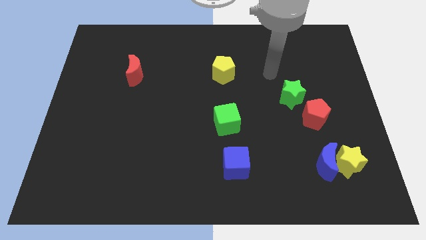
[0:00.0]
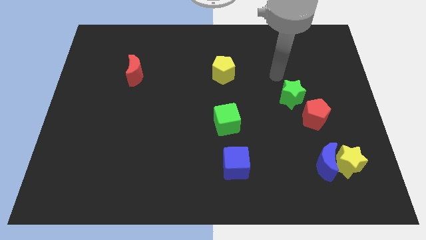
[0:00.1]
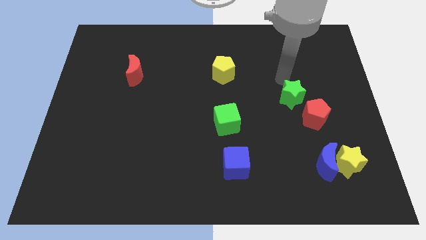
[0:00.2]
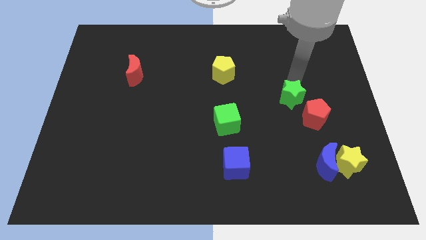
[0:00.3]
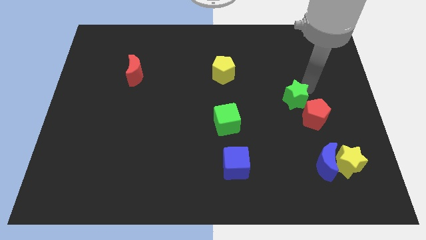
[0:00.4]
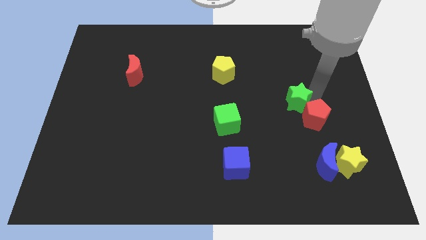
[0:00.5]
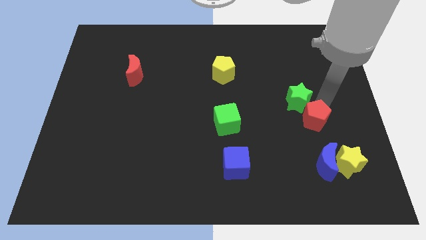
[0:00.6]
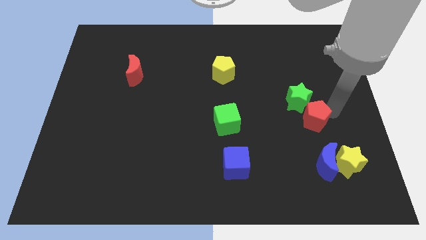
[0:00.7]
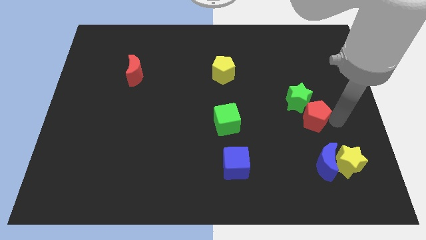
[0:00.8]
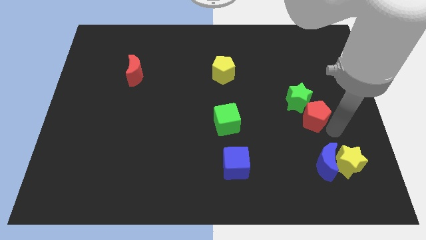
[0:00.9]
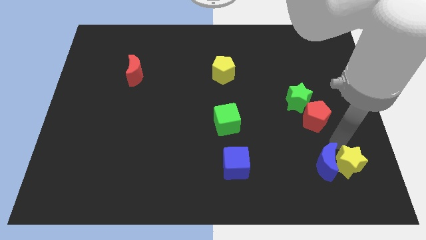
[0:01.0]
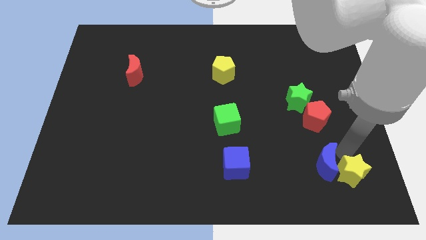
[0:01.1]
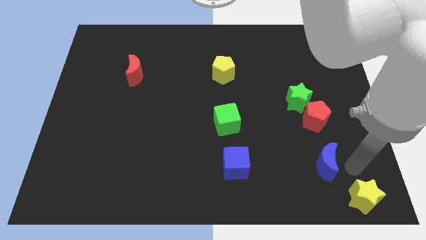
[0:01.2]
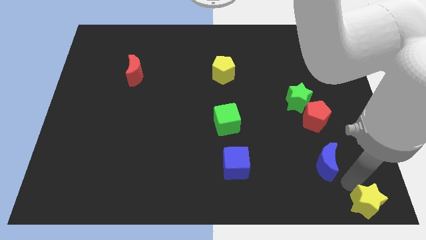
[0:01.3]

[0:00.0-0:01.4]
move the blue moon away from the yellow star

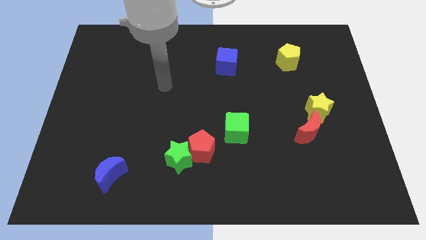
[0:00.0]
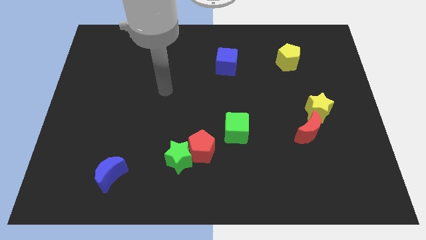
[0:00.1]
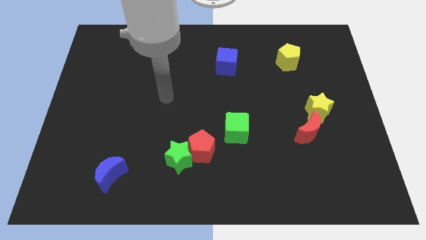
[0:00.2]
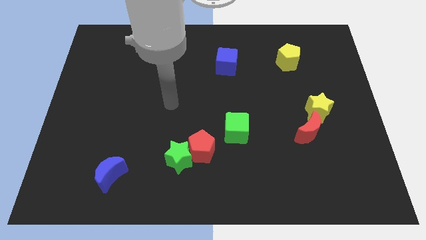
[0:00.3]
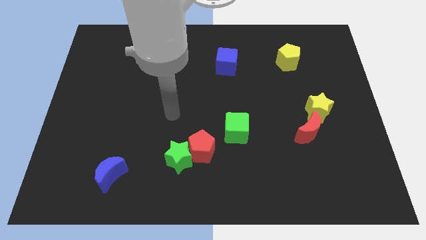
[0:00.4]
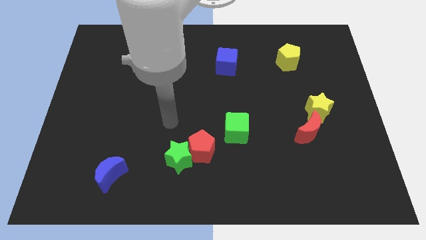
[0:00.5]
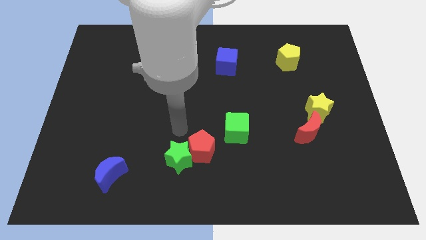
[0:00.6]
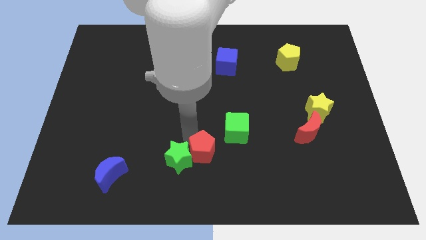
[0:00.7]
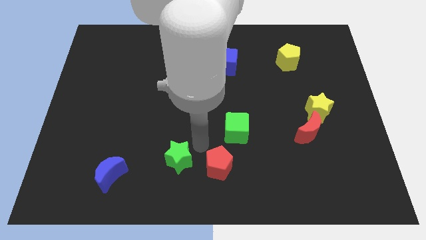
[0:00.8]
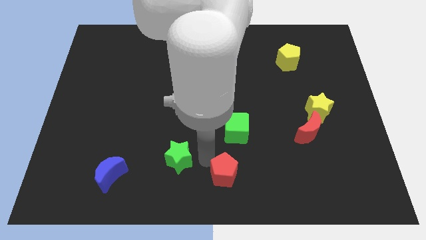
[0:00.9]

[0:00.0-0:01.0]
separate the green star from the red pentagon

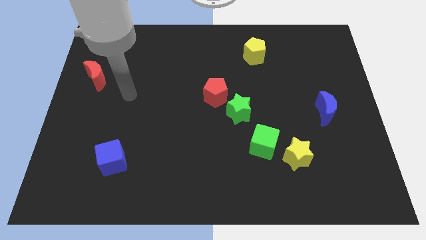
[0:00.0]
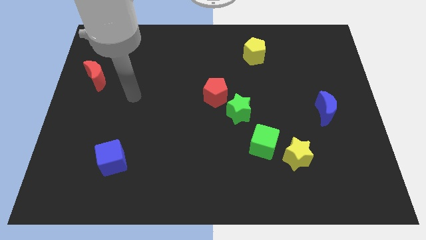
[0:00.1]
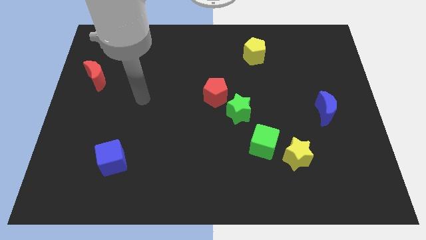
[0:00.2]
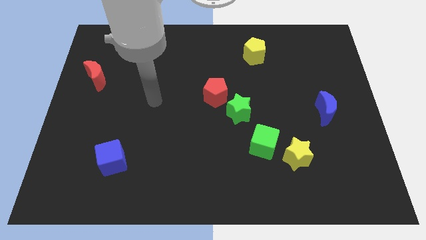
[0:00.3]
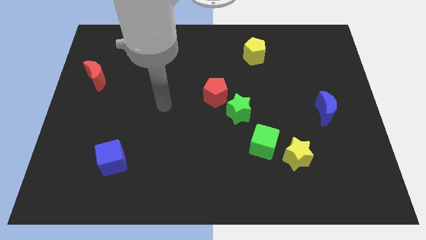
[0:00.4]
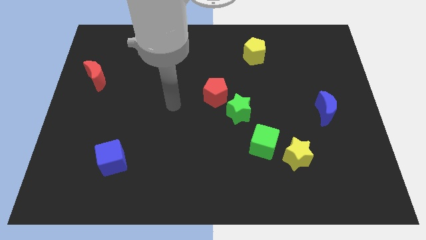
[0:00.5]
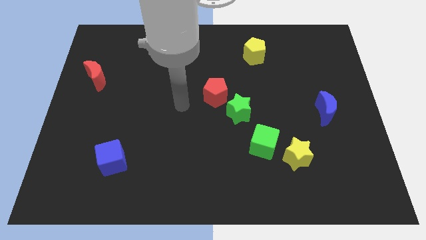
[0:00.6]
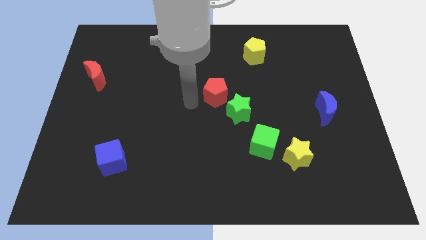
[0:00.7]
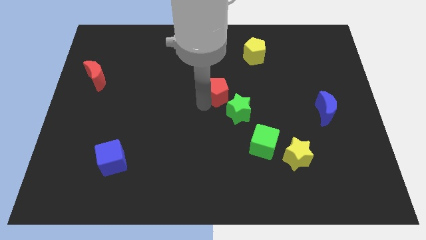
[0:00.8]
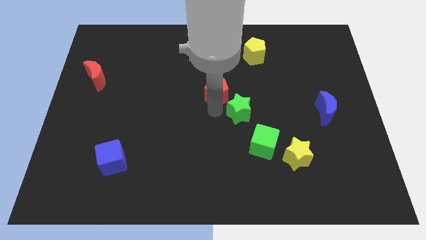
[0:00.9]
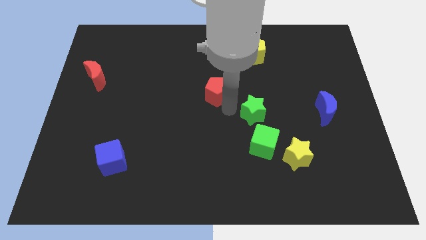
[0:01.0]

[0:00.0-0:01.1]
pull the red pentagon apart from the green star

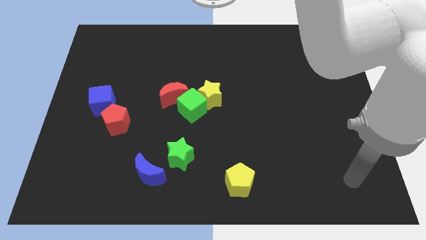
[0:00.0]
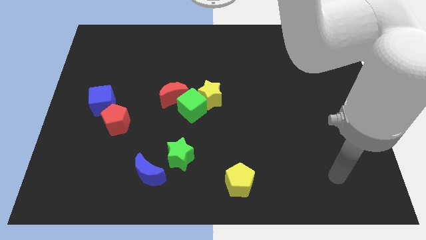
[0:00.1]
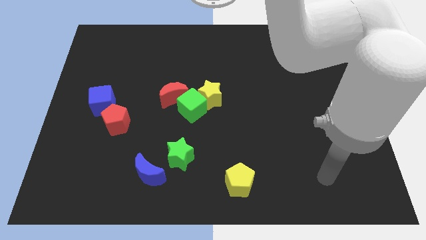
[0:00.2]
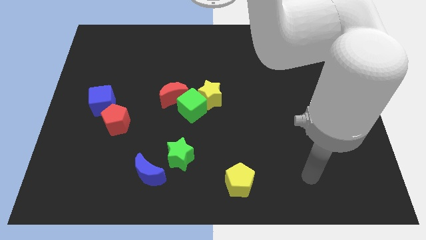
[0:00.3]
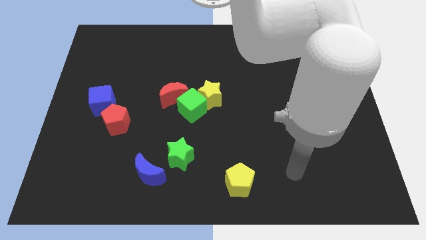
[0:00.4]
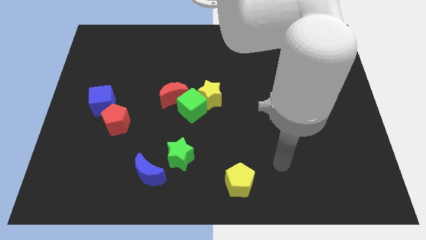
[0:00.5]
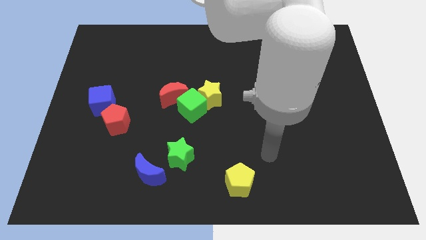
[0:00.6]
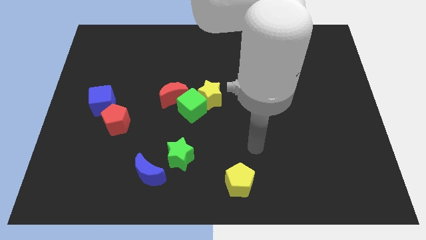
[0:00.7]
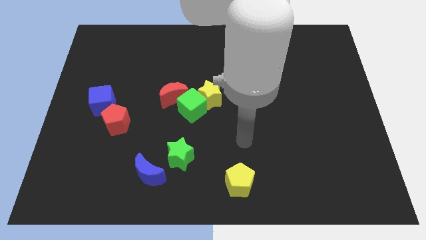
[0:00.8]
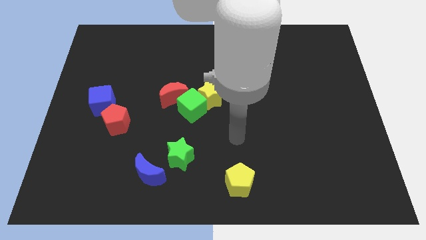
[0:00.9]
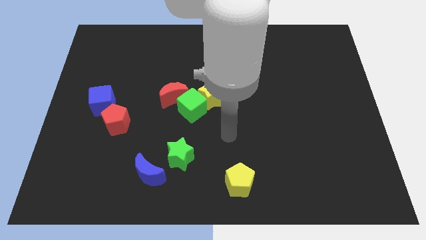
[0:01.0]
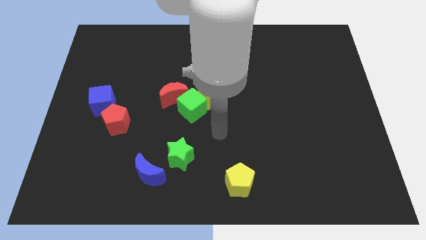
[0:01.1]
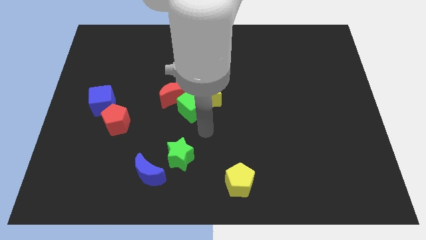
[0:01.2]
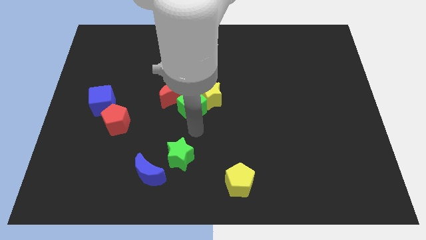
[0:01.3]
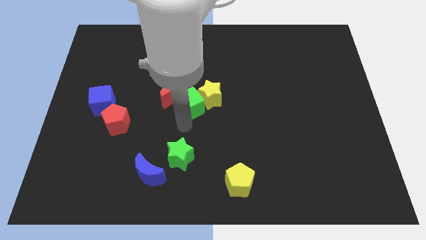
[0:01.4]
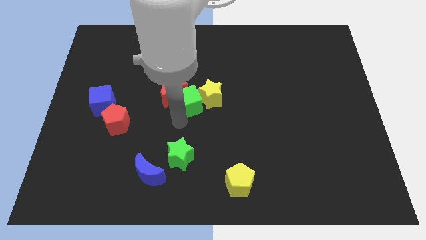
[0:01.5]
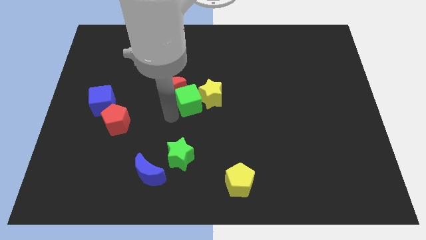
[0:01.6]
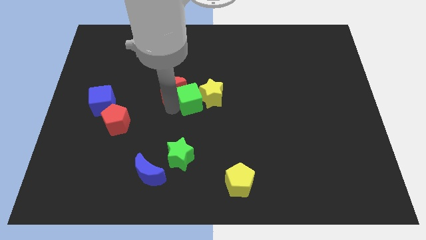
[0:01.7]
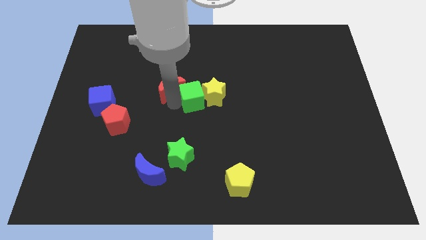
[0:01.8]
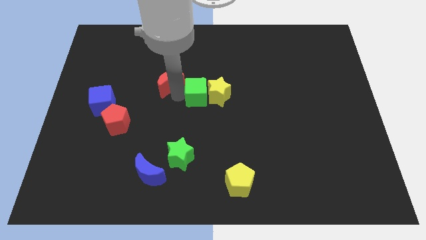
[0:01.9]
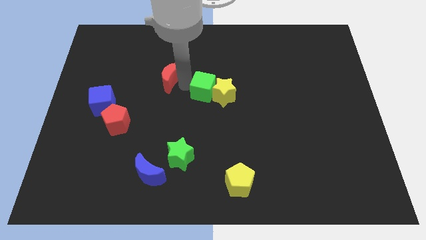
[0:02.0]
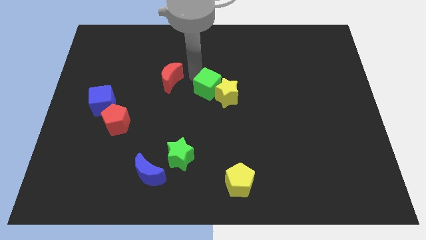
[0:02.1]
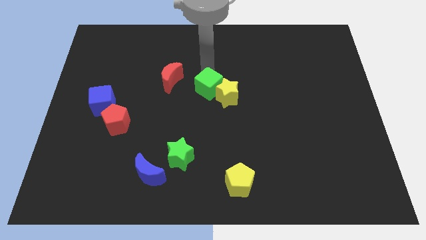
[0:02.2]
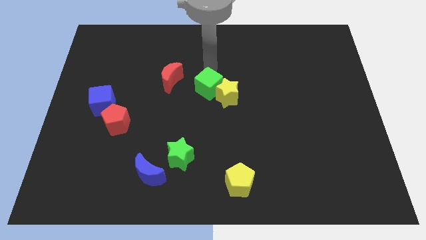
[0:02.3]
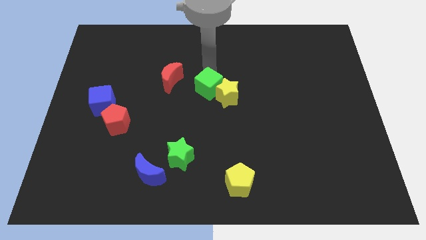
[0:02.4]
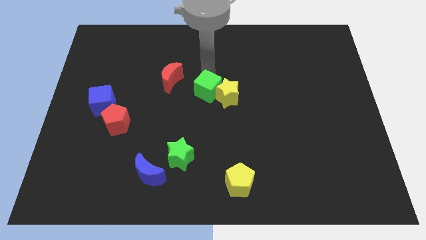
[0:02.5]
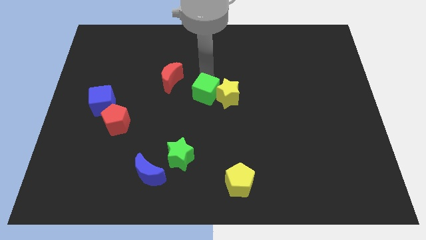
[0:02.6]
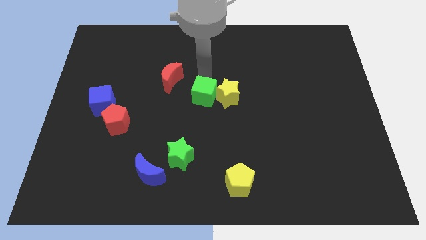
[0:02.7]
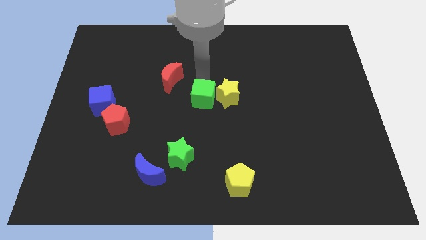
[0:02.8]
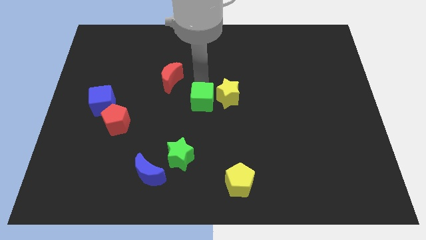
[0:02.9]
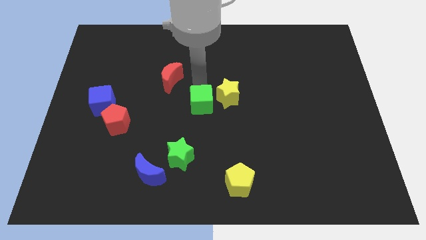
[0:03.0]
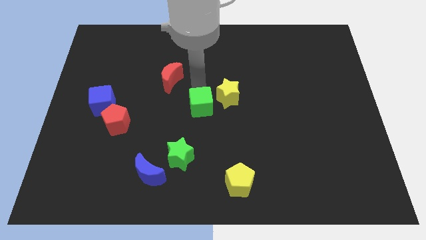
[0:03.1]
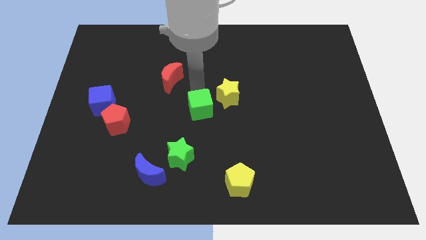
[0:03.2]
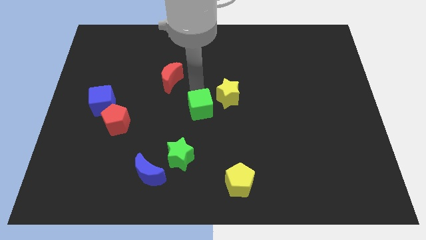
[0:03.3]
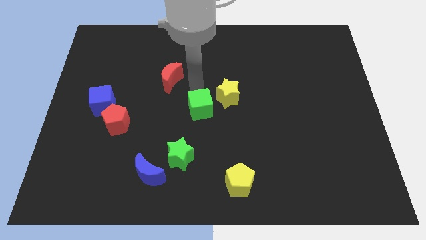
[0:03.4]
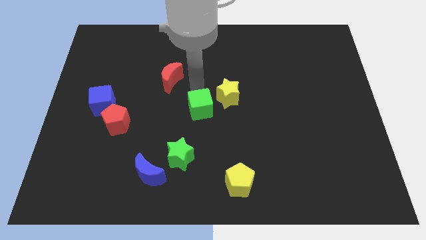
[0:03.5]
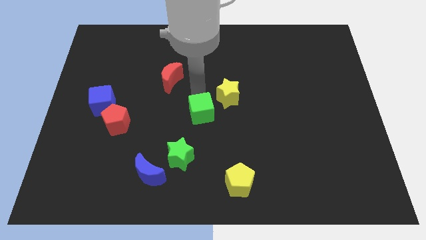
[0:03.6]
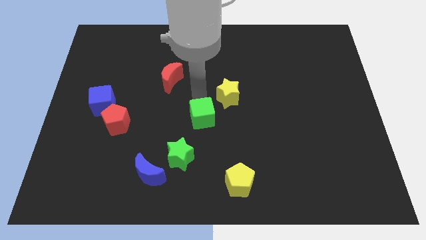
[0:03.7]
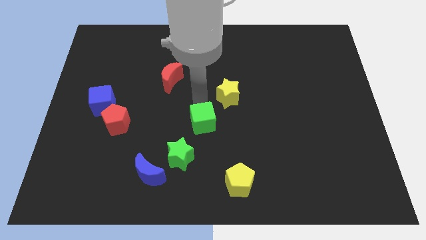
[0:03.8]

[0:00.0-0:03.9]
separate the green cube from the yellow star and red moon

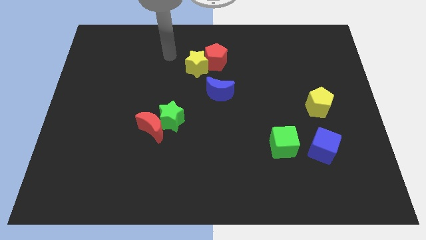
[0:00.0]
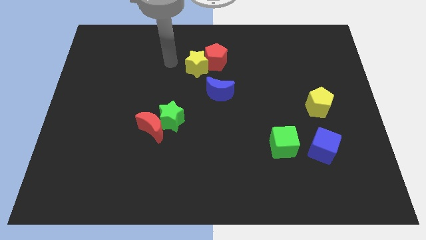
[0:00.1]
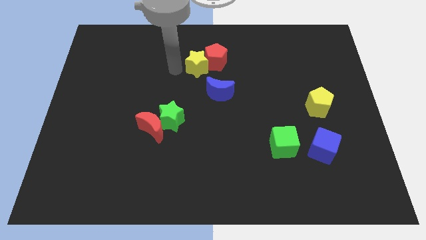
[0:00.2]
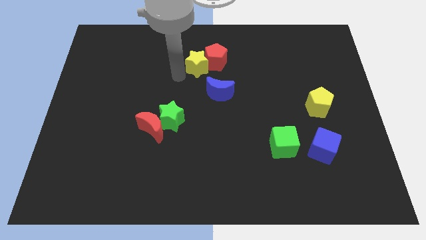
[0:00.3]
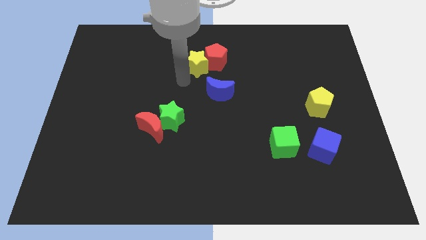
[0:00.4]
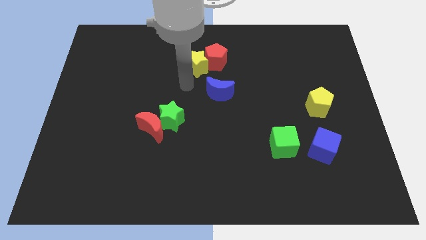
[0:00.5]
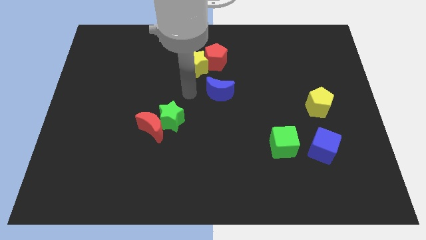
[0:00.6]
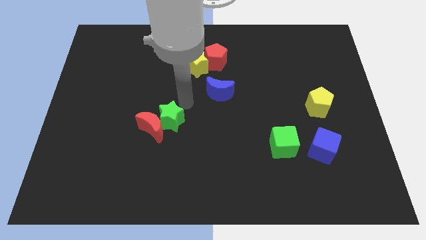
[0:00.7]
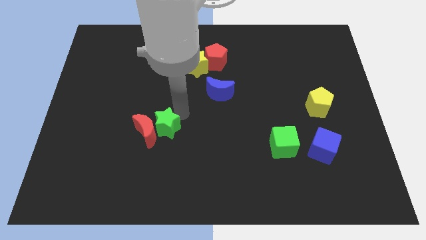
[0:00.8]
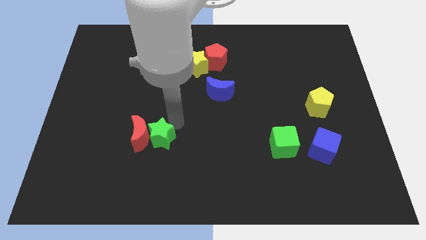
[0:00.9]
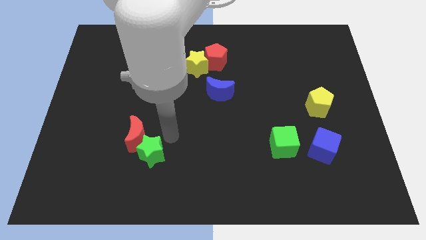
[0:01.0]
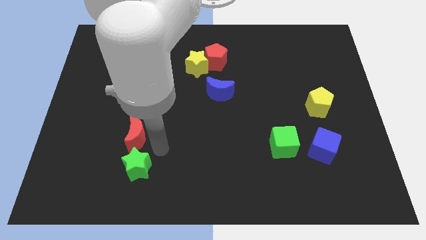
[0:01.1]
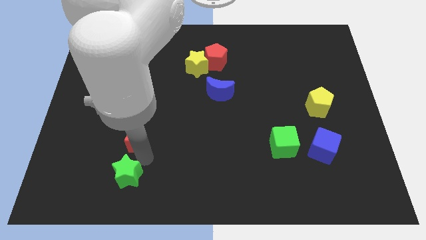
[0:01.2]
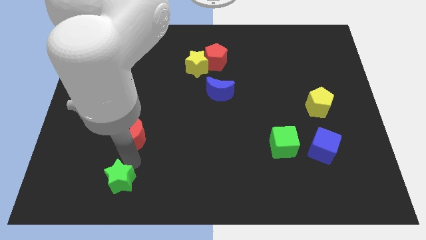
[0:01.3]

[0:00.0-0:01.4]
pull the red moon apart from the green star

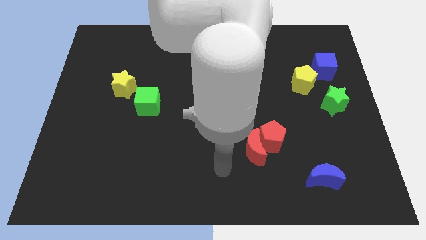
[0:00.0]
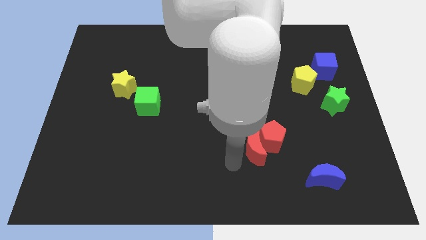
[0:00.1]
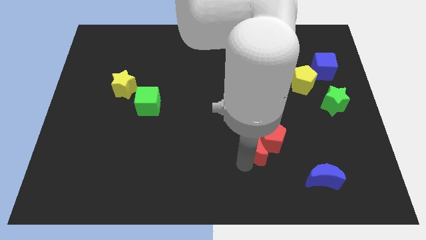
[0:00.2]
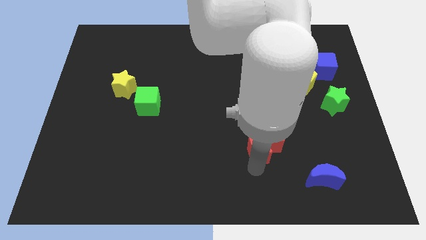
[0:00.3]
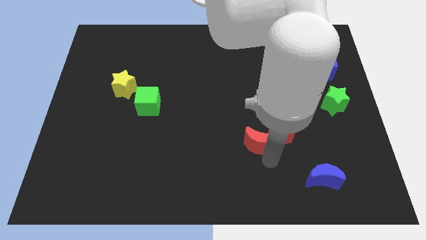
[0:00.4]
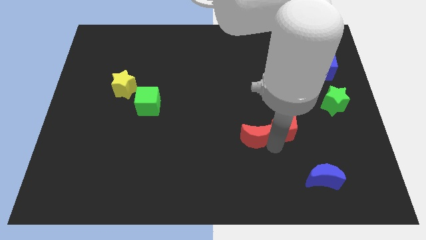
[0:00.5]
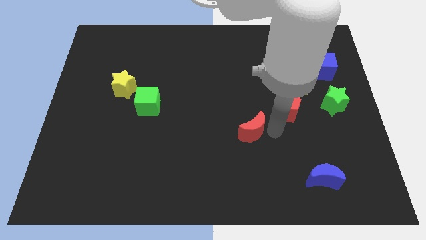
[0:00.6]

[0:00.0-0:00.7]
move the red moon away from the red pentagon
